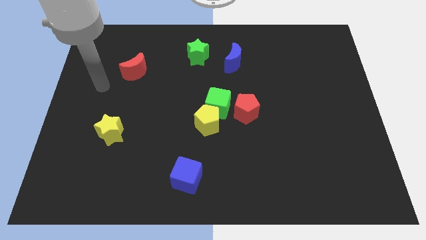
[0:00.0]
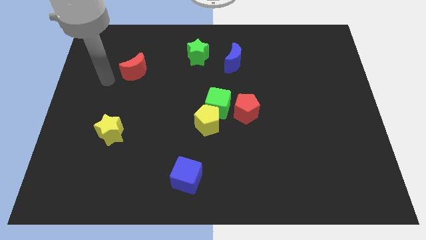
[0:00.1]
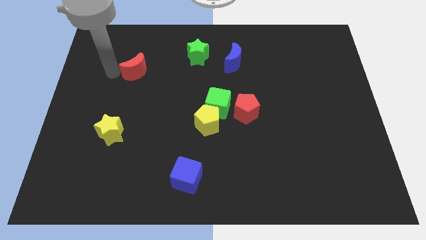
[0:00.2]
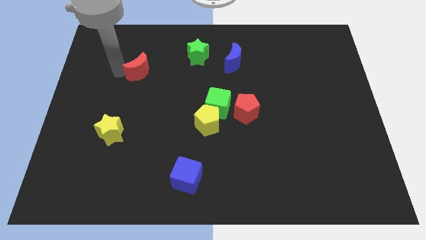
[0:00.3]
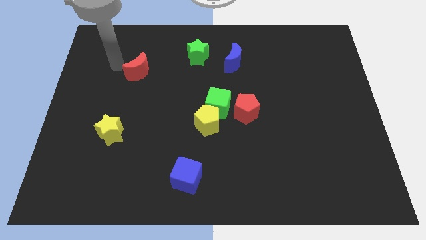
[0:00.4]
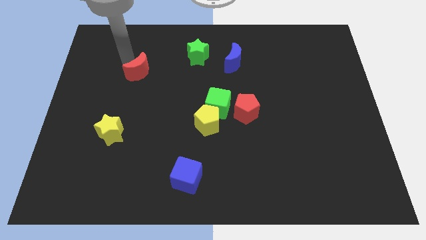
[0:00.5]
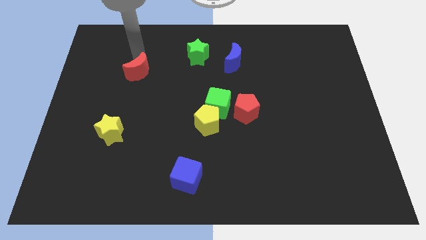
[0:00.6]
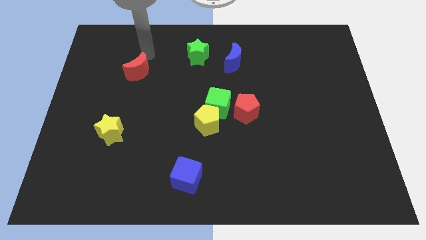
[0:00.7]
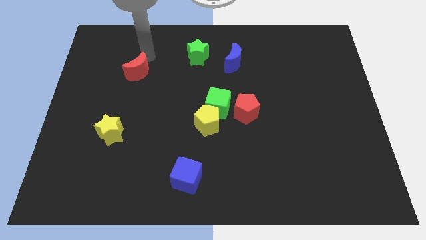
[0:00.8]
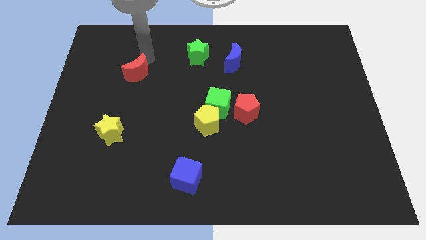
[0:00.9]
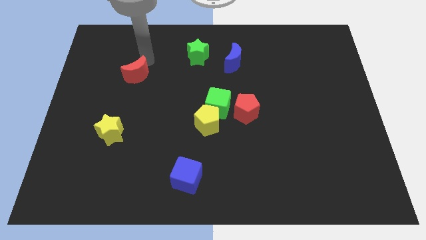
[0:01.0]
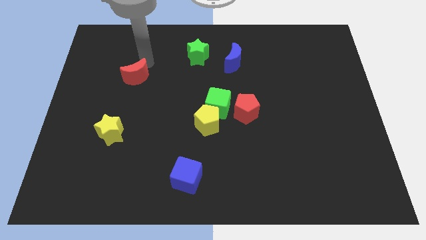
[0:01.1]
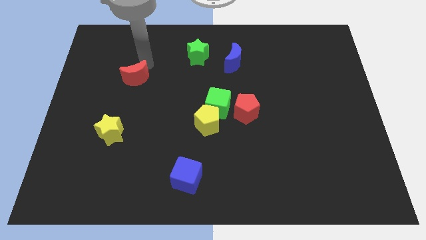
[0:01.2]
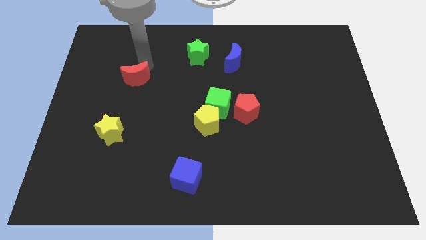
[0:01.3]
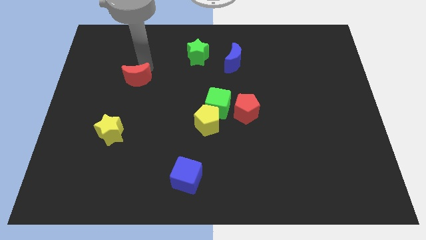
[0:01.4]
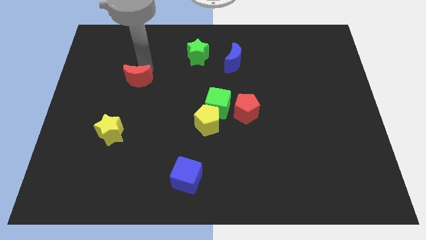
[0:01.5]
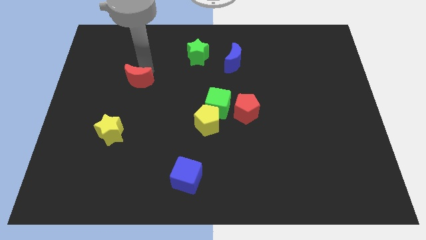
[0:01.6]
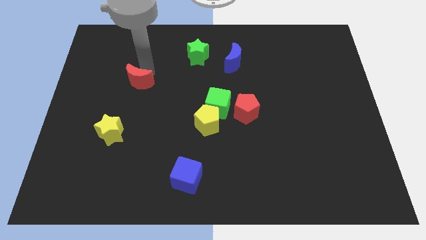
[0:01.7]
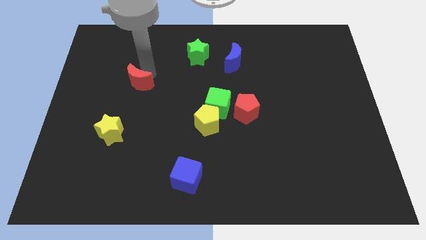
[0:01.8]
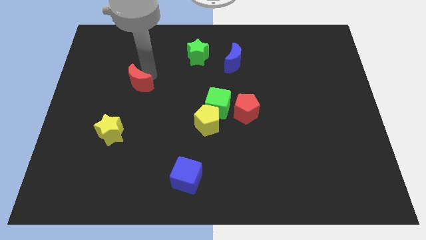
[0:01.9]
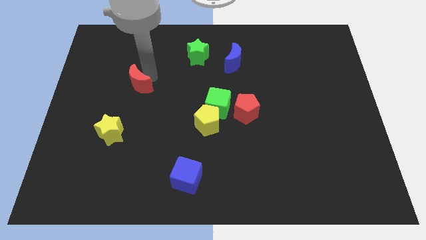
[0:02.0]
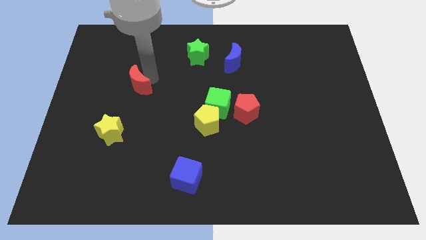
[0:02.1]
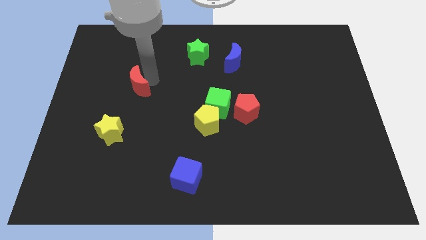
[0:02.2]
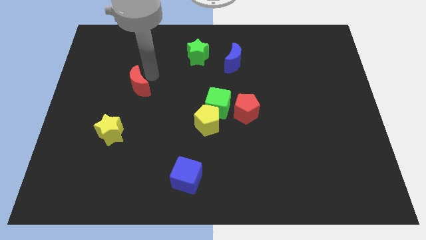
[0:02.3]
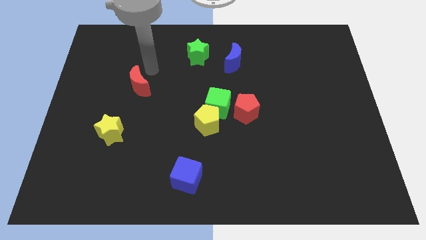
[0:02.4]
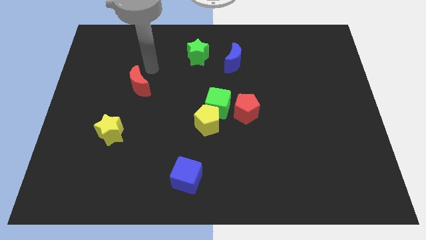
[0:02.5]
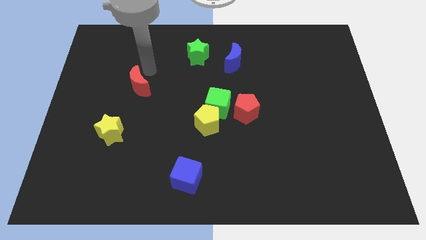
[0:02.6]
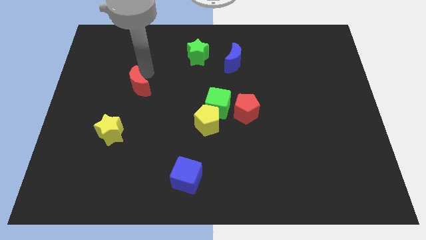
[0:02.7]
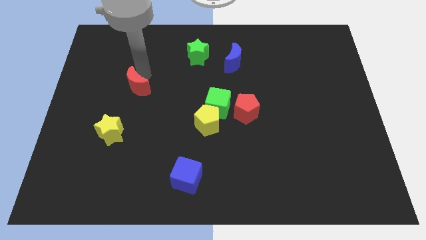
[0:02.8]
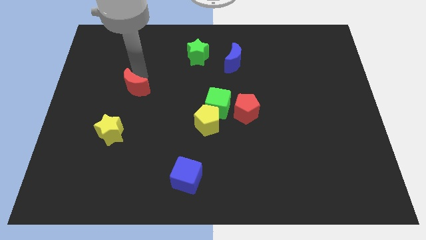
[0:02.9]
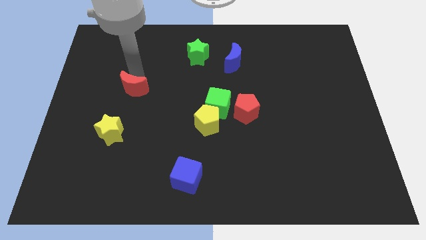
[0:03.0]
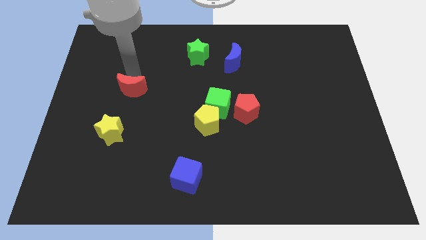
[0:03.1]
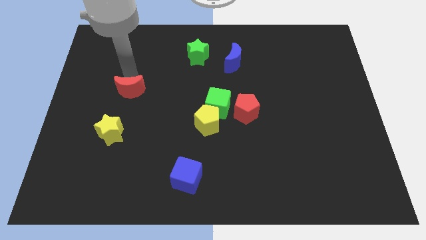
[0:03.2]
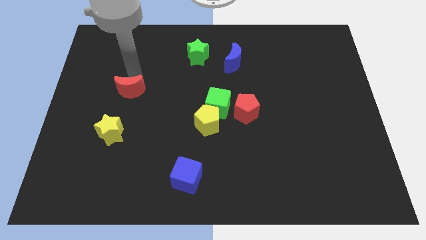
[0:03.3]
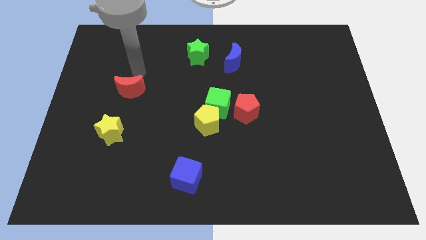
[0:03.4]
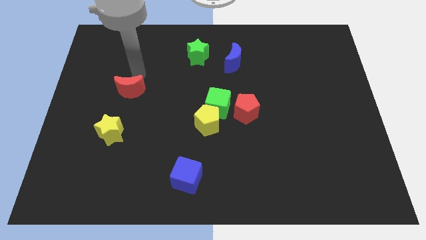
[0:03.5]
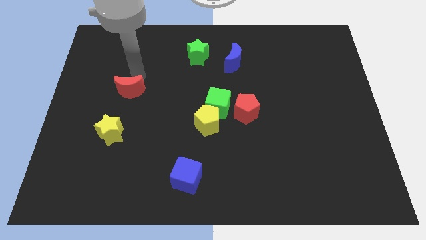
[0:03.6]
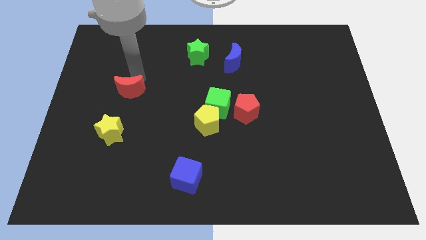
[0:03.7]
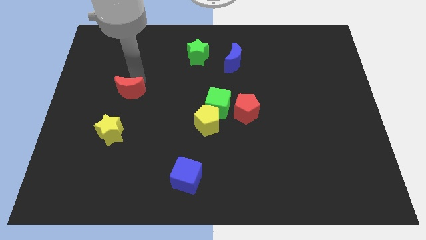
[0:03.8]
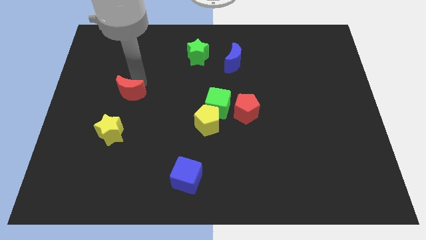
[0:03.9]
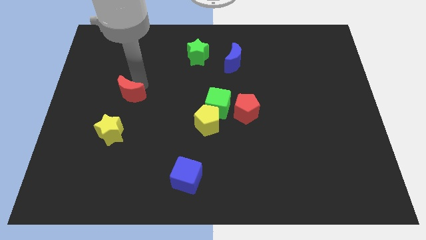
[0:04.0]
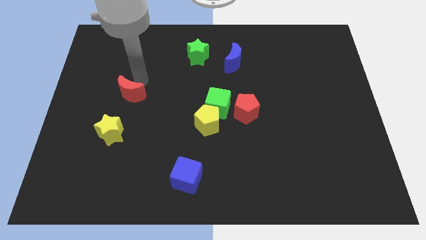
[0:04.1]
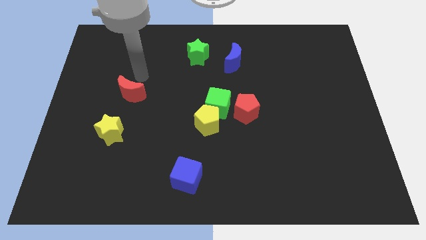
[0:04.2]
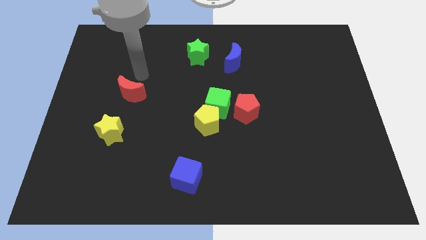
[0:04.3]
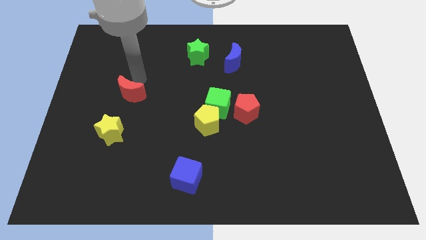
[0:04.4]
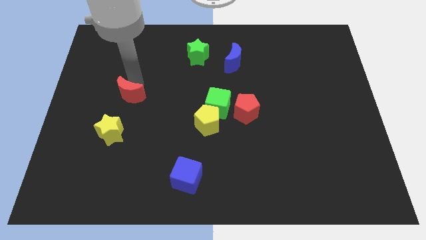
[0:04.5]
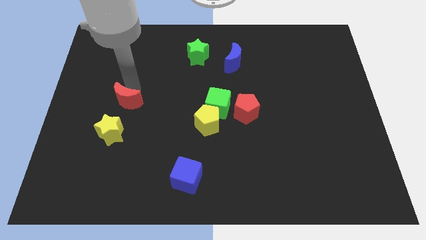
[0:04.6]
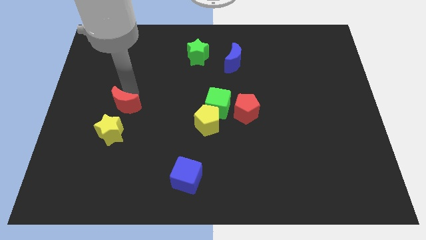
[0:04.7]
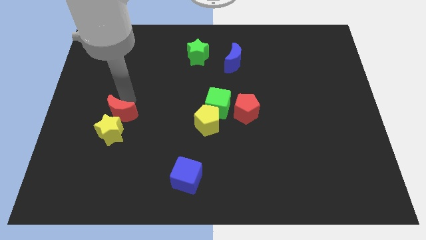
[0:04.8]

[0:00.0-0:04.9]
push the red moon towards the yellow star

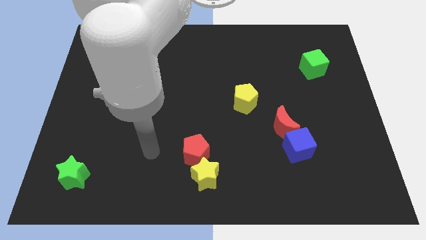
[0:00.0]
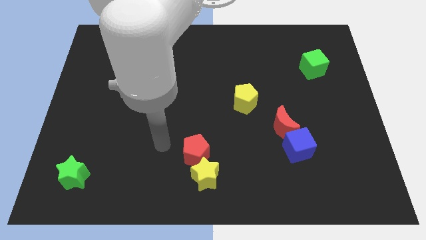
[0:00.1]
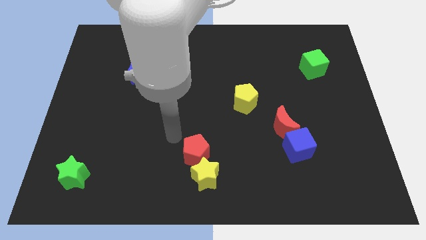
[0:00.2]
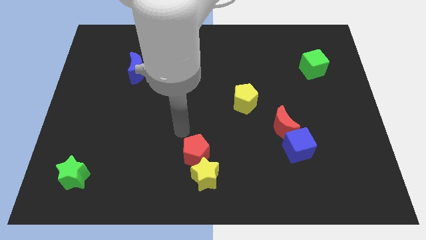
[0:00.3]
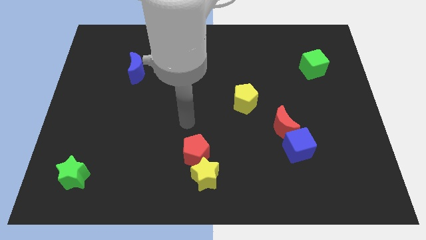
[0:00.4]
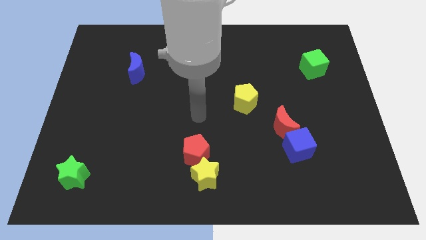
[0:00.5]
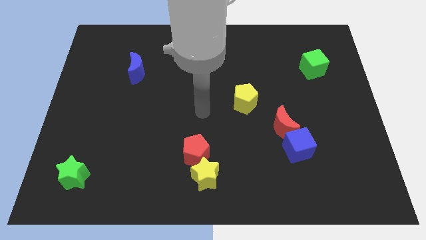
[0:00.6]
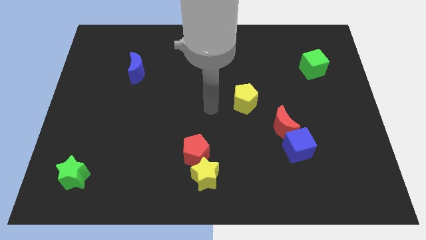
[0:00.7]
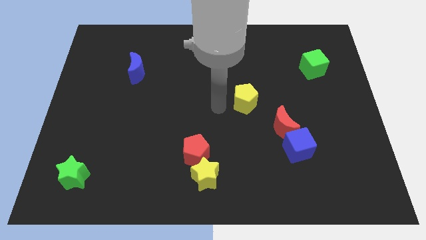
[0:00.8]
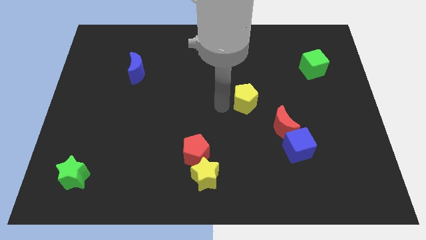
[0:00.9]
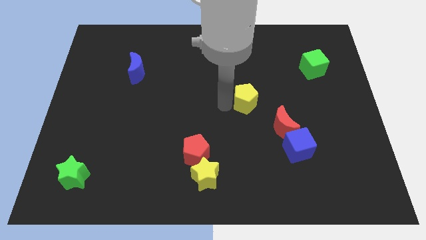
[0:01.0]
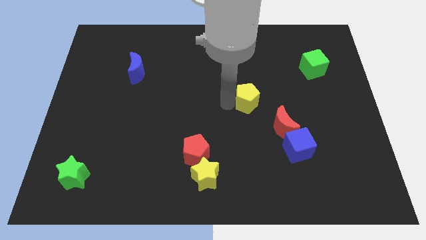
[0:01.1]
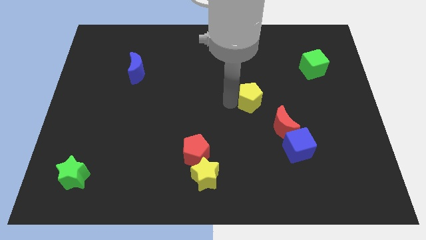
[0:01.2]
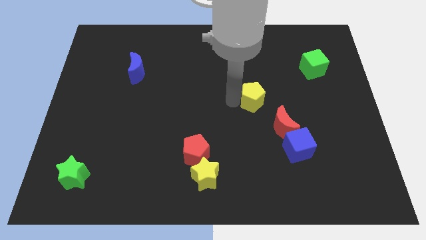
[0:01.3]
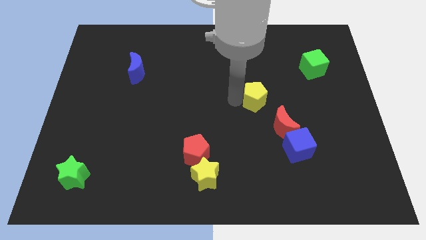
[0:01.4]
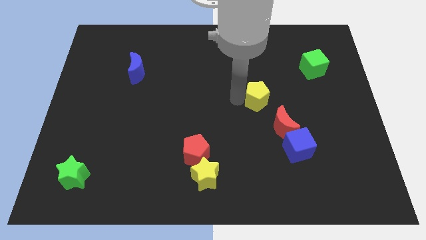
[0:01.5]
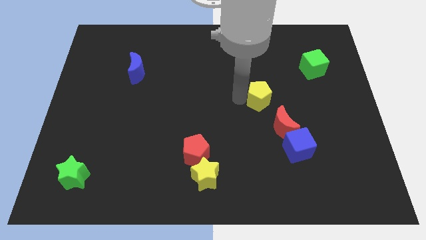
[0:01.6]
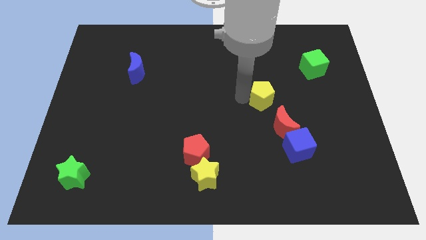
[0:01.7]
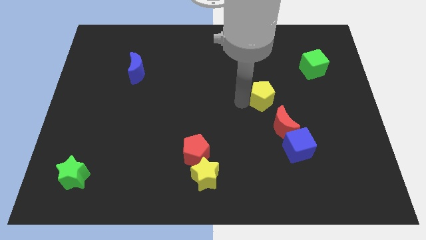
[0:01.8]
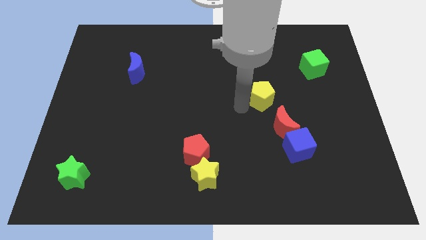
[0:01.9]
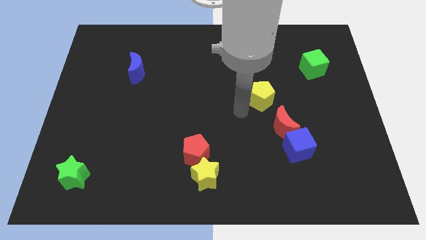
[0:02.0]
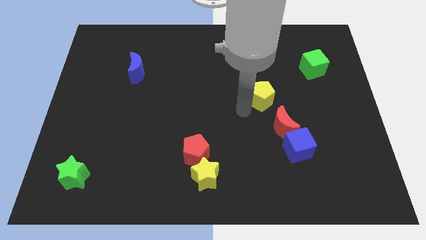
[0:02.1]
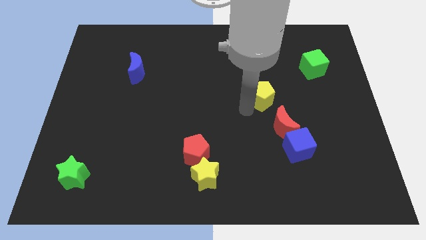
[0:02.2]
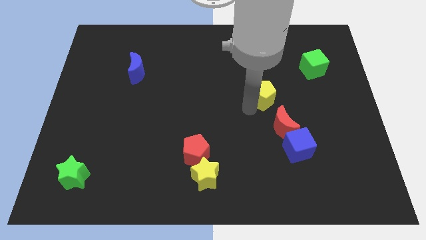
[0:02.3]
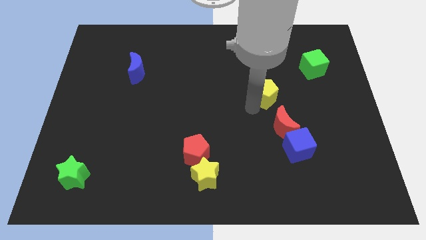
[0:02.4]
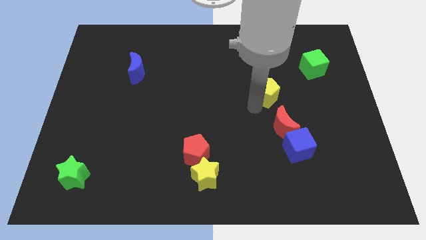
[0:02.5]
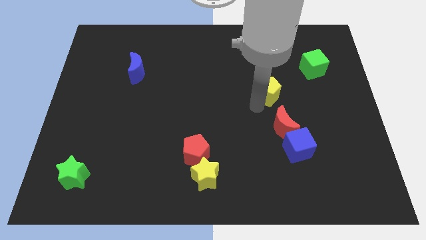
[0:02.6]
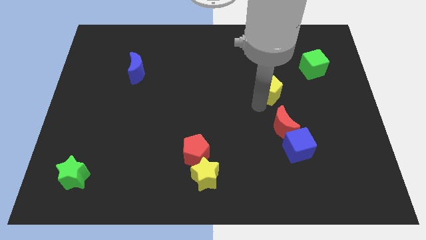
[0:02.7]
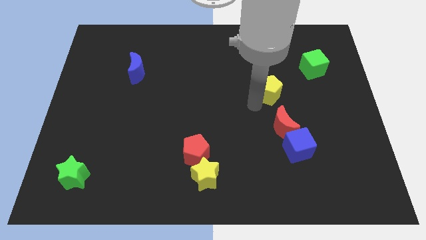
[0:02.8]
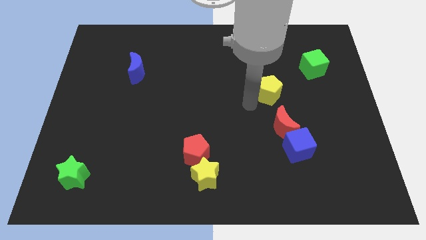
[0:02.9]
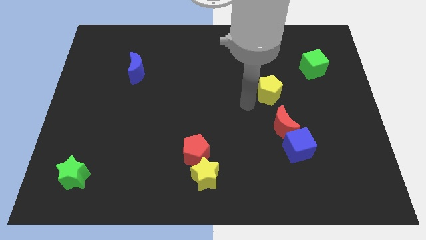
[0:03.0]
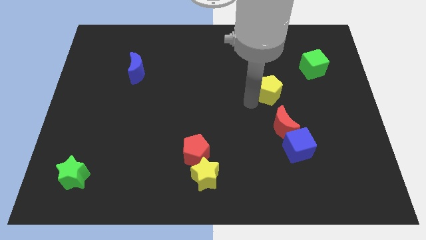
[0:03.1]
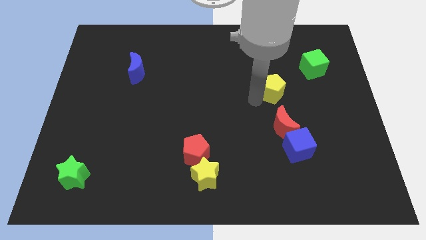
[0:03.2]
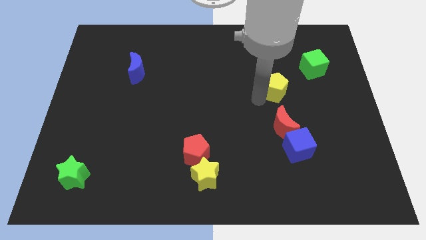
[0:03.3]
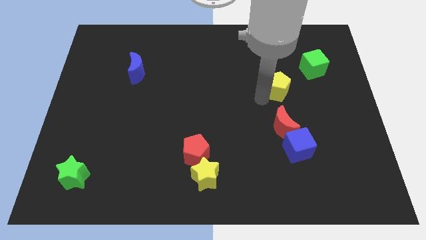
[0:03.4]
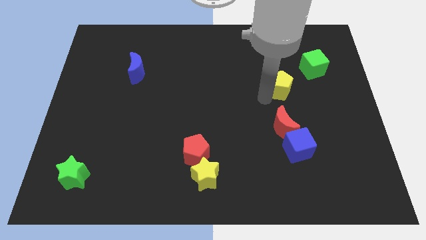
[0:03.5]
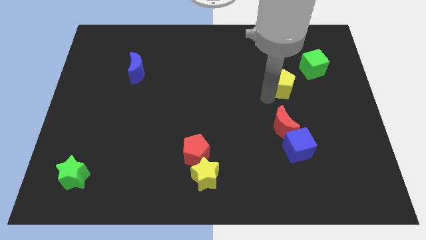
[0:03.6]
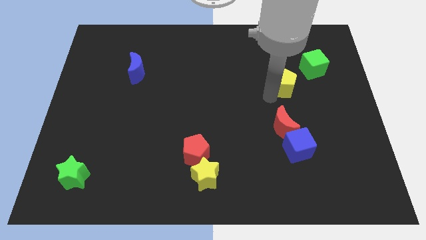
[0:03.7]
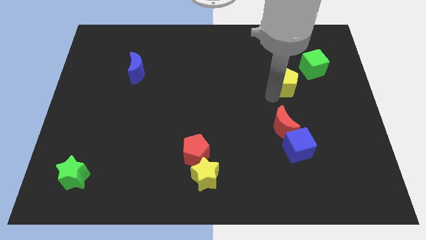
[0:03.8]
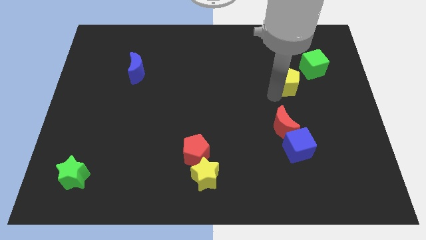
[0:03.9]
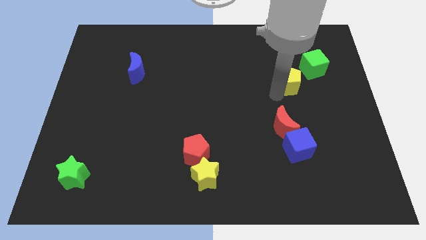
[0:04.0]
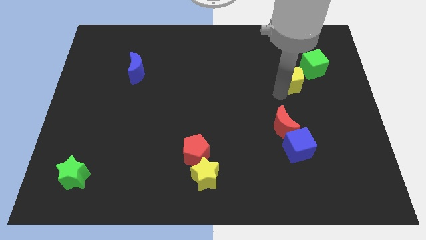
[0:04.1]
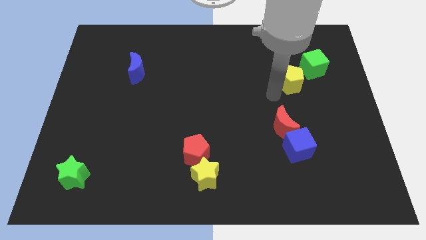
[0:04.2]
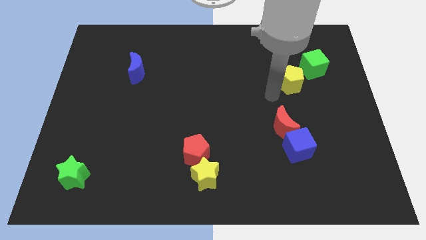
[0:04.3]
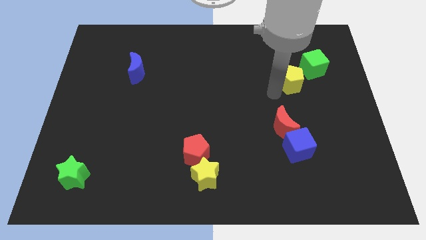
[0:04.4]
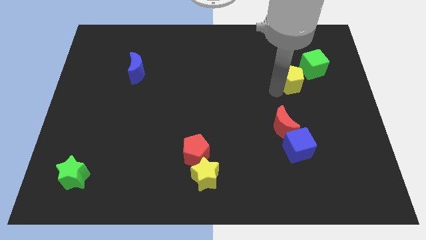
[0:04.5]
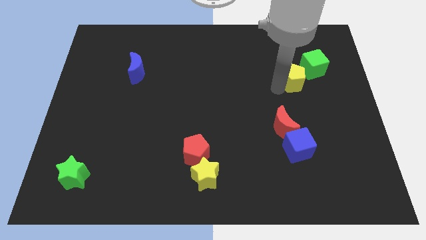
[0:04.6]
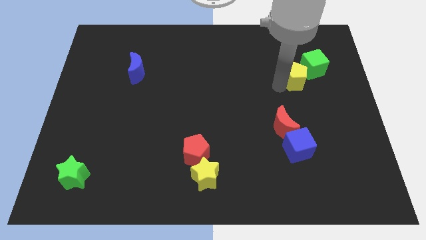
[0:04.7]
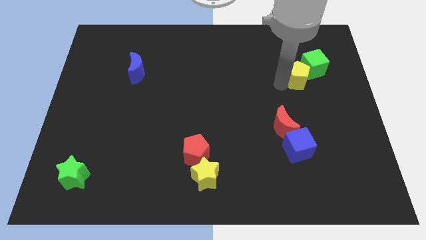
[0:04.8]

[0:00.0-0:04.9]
slide the yellow pentagon towards the green cube
